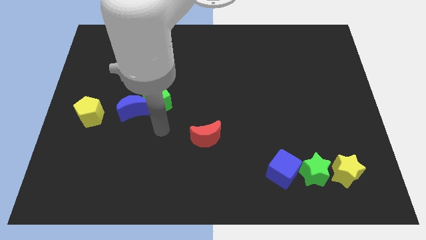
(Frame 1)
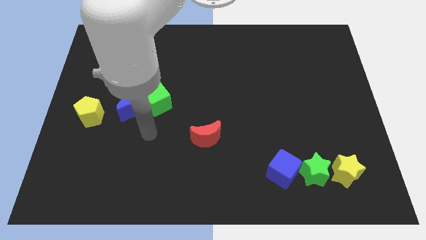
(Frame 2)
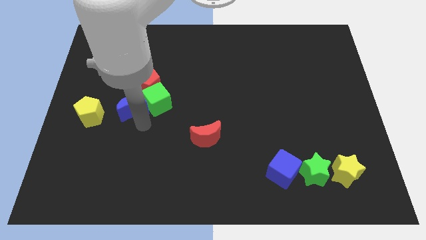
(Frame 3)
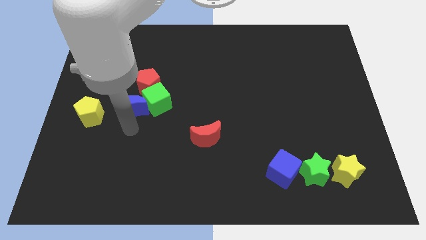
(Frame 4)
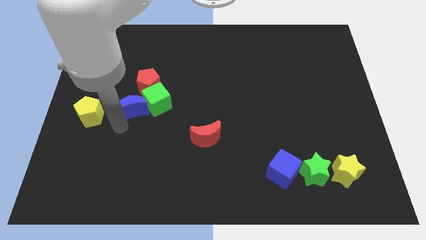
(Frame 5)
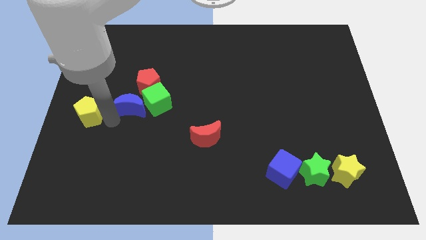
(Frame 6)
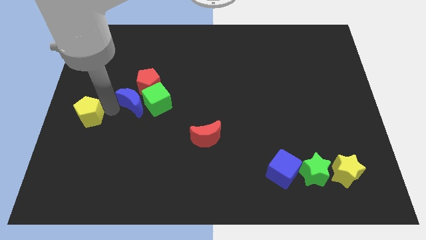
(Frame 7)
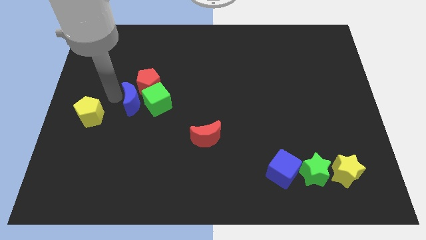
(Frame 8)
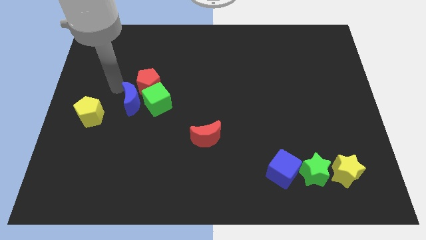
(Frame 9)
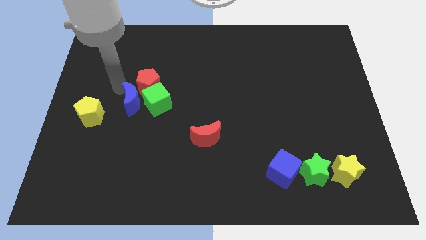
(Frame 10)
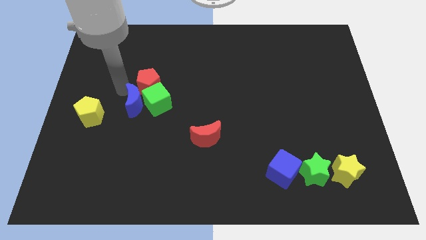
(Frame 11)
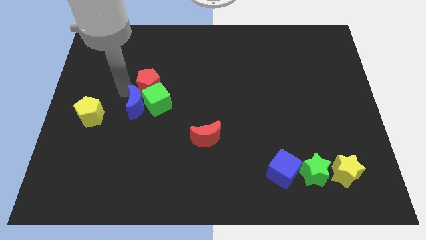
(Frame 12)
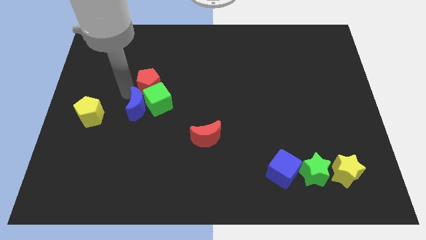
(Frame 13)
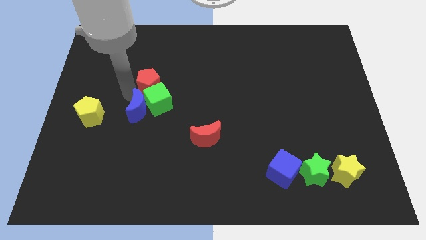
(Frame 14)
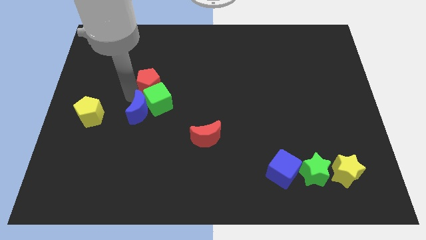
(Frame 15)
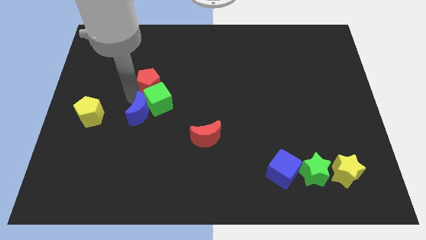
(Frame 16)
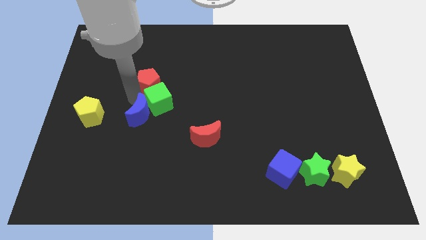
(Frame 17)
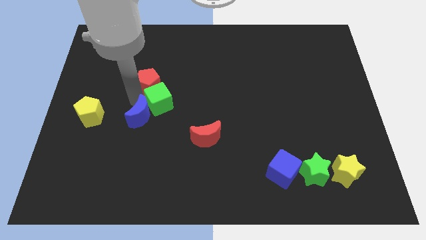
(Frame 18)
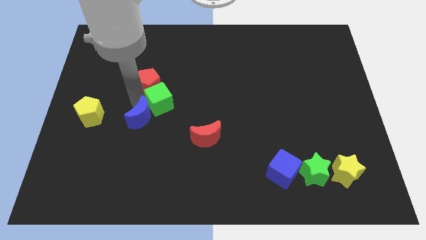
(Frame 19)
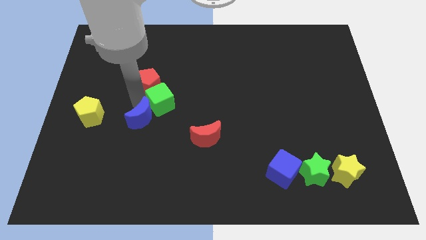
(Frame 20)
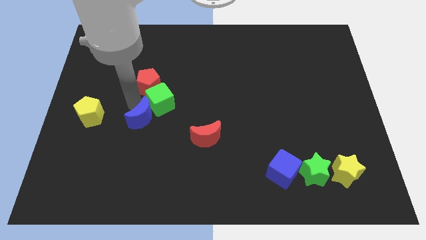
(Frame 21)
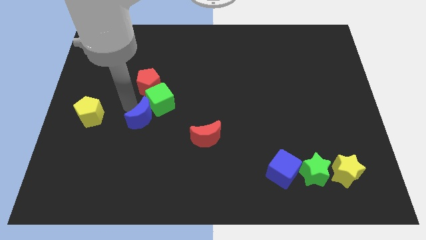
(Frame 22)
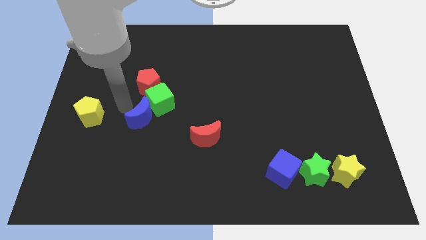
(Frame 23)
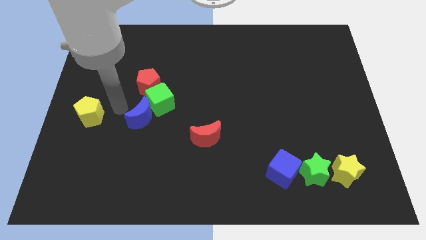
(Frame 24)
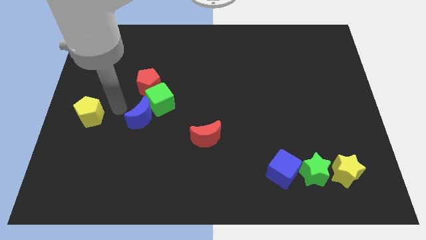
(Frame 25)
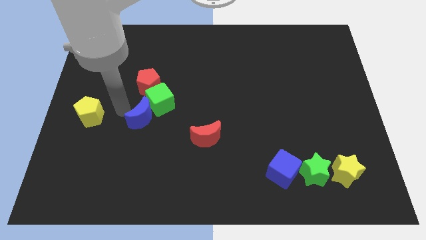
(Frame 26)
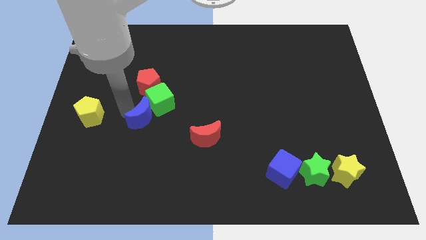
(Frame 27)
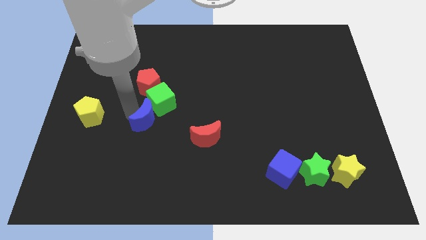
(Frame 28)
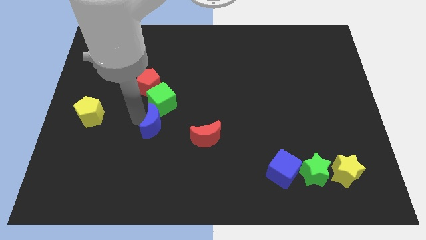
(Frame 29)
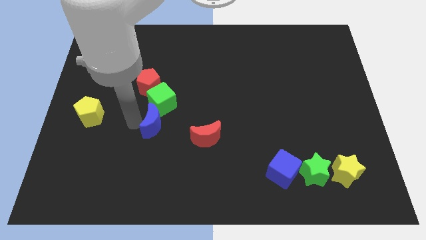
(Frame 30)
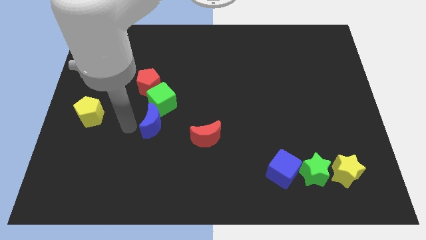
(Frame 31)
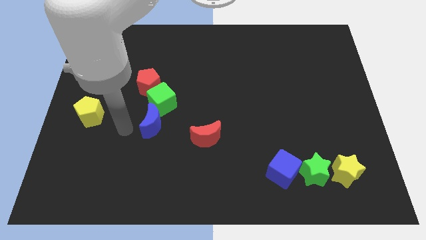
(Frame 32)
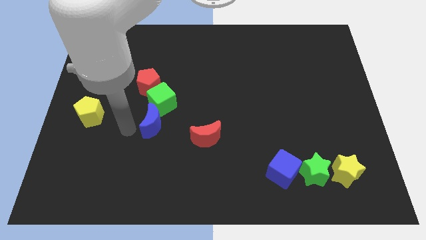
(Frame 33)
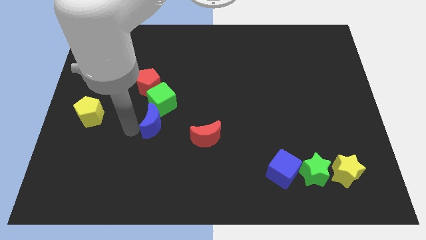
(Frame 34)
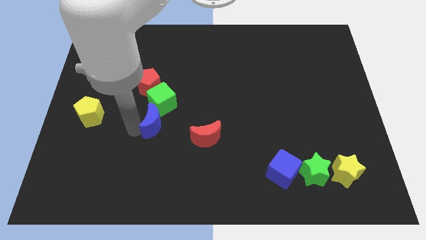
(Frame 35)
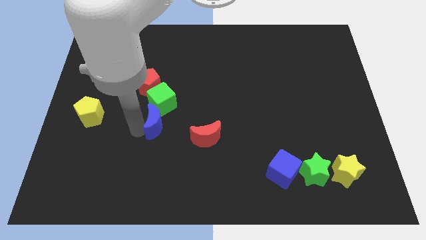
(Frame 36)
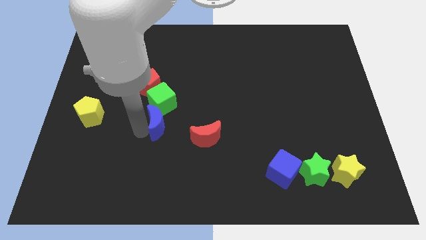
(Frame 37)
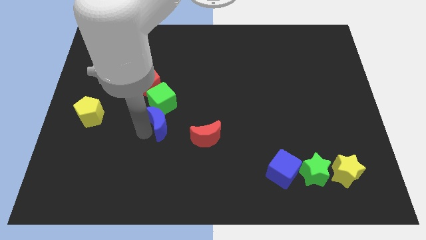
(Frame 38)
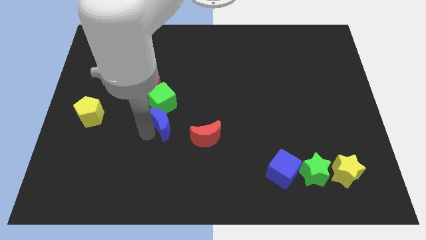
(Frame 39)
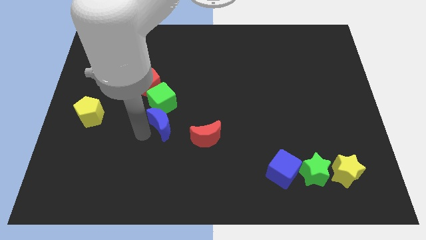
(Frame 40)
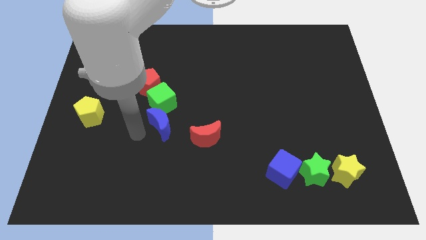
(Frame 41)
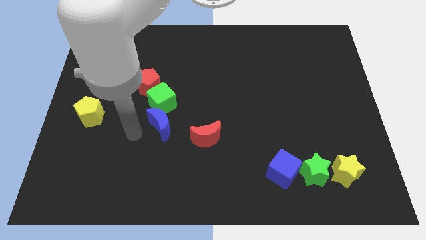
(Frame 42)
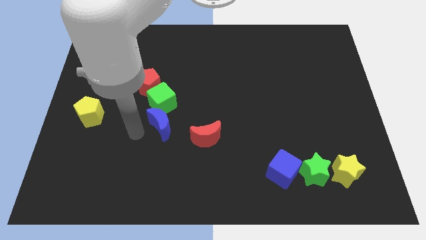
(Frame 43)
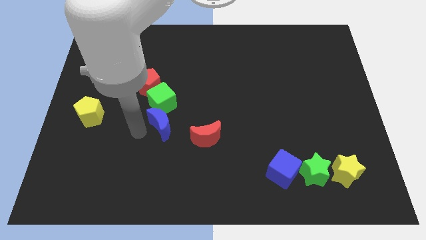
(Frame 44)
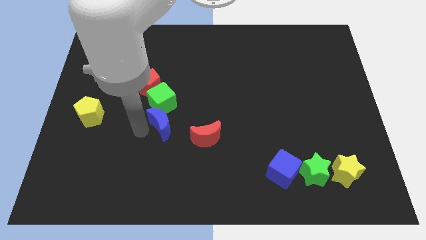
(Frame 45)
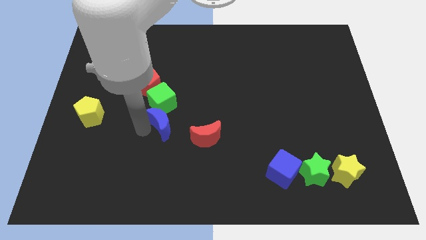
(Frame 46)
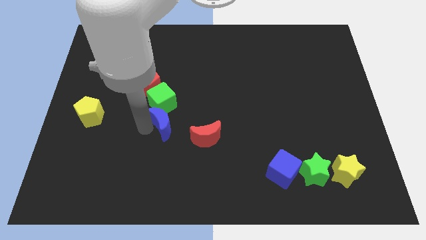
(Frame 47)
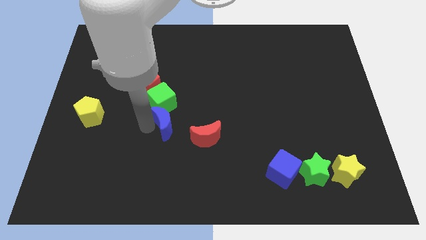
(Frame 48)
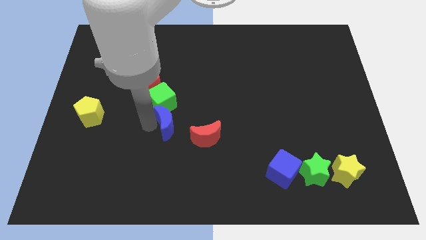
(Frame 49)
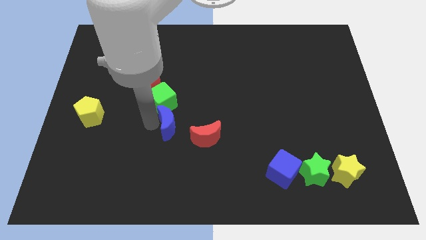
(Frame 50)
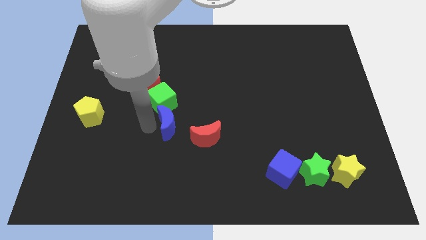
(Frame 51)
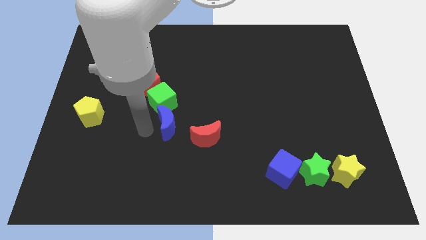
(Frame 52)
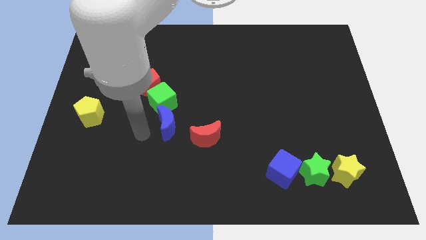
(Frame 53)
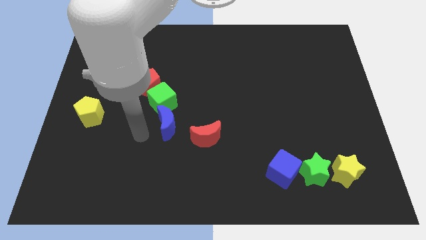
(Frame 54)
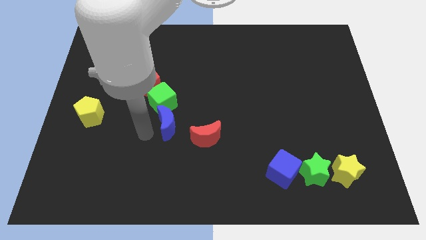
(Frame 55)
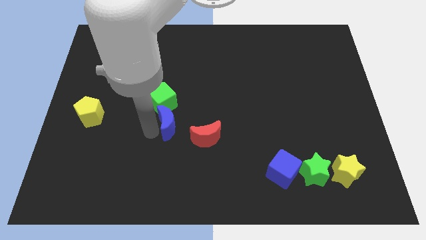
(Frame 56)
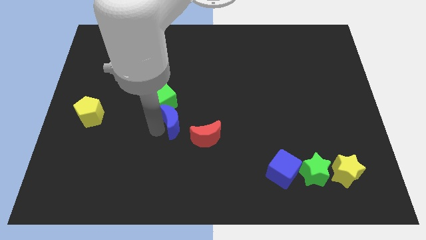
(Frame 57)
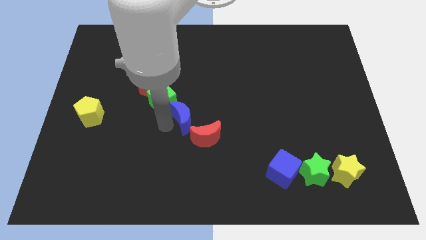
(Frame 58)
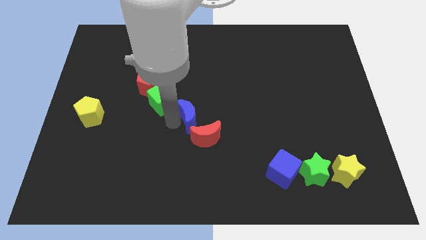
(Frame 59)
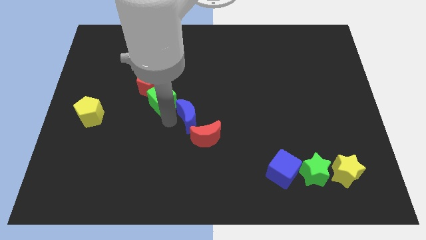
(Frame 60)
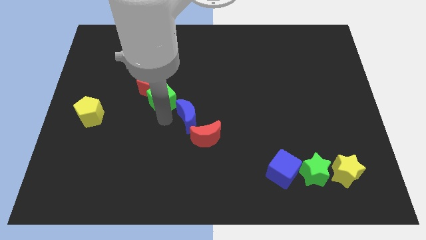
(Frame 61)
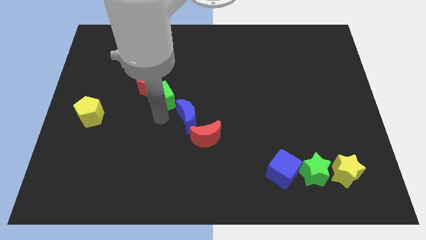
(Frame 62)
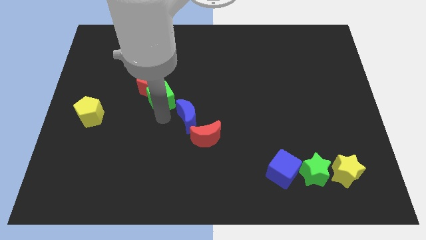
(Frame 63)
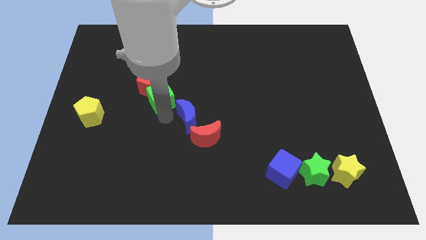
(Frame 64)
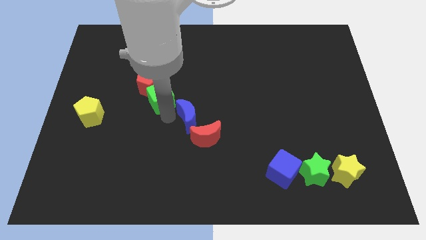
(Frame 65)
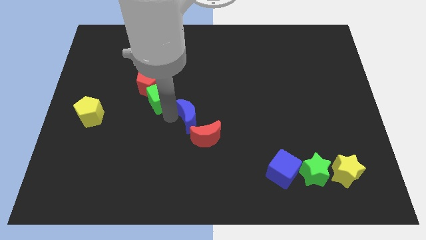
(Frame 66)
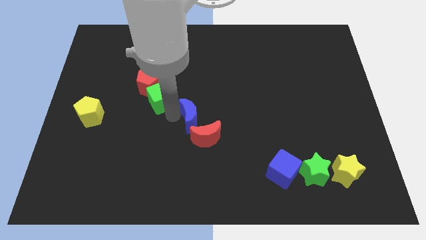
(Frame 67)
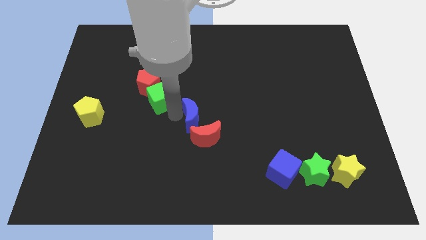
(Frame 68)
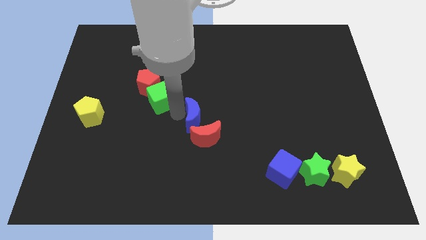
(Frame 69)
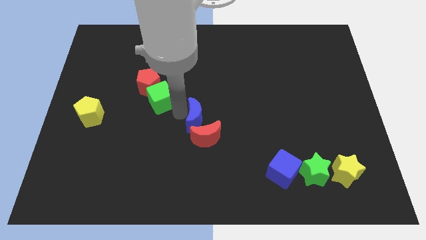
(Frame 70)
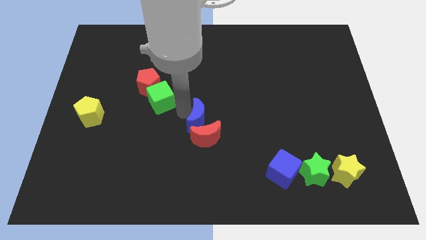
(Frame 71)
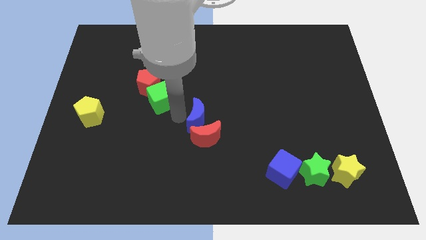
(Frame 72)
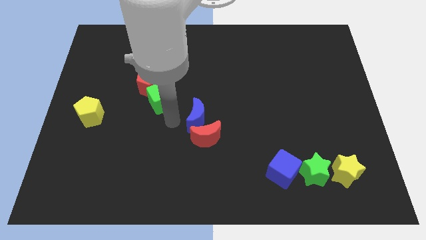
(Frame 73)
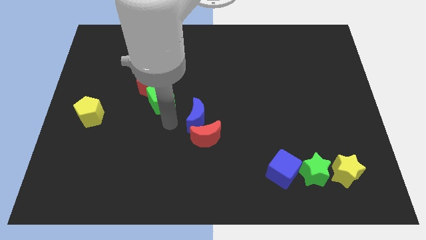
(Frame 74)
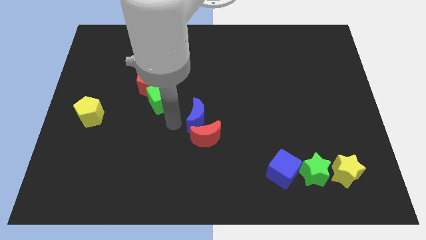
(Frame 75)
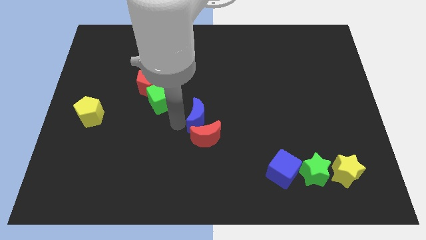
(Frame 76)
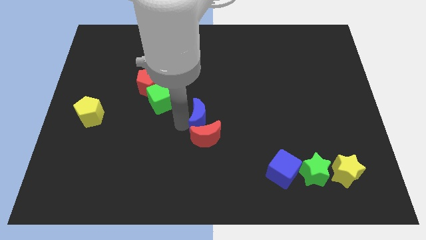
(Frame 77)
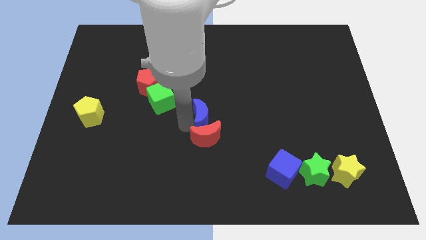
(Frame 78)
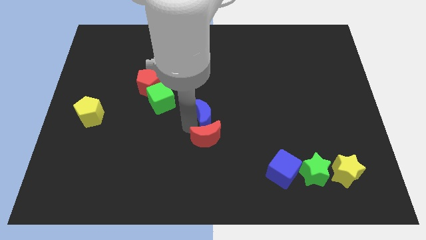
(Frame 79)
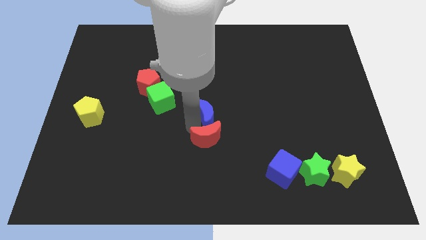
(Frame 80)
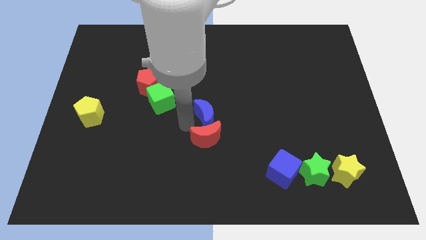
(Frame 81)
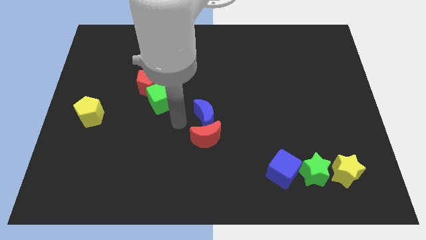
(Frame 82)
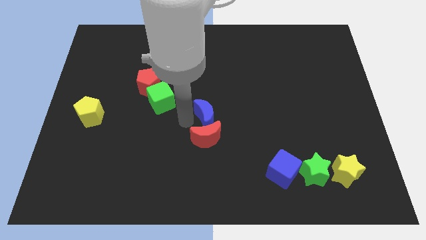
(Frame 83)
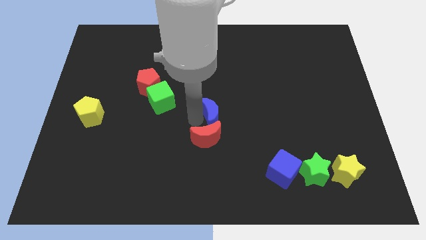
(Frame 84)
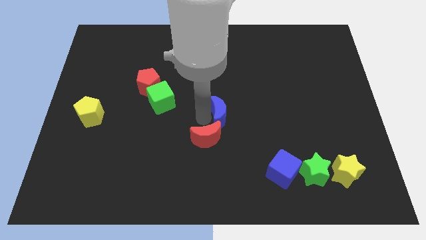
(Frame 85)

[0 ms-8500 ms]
move the blue moon right
